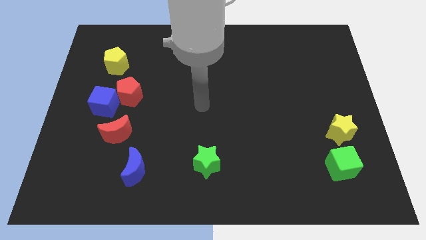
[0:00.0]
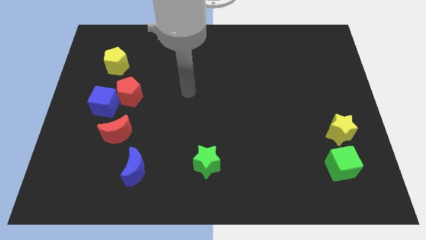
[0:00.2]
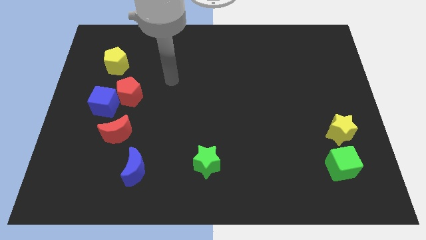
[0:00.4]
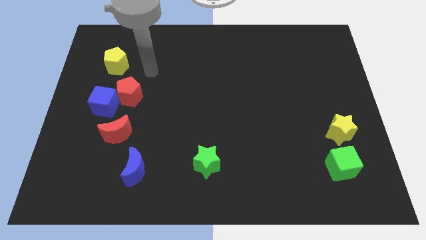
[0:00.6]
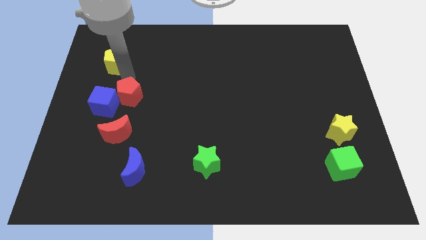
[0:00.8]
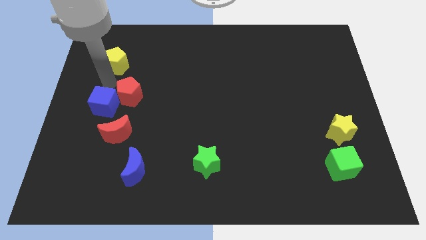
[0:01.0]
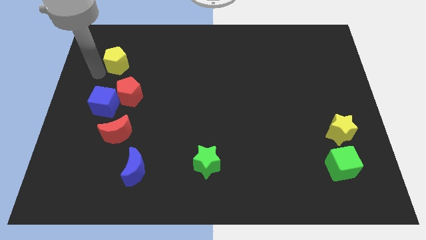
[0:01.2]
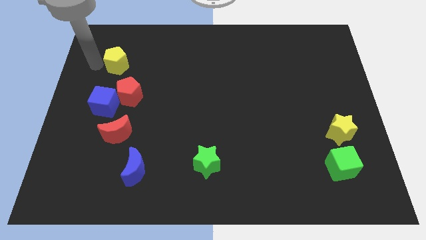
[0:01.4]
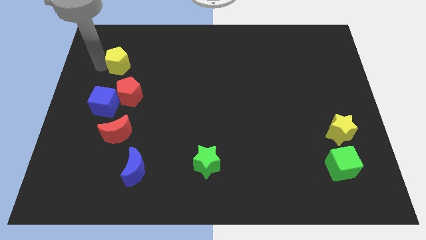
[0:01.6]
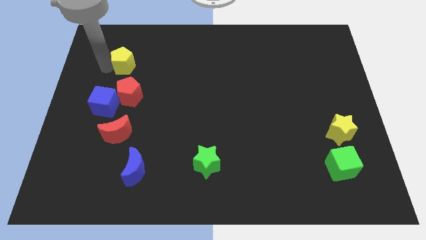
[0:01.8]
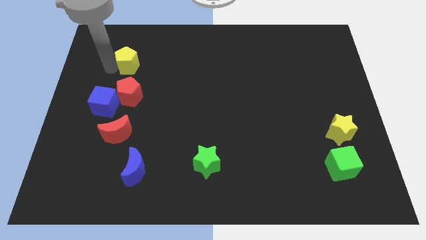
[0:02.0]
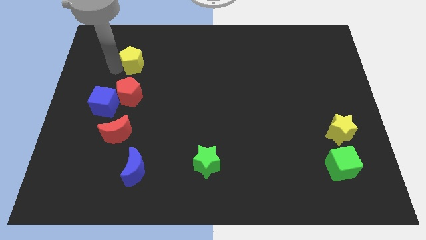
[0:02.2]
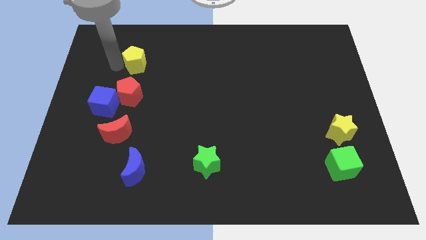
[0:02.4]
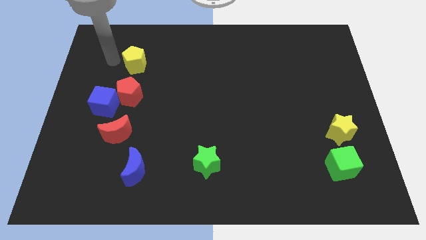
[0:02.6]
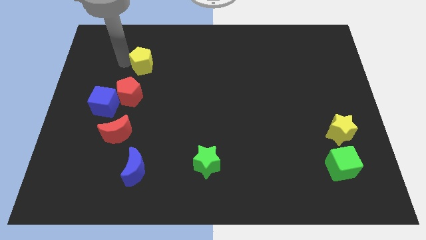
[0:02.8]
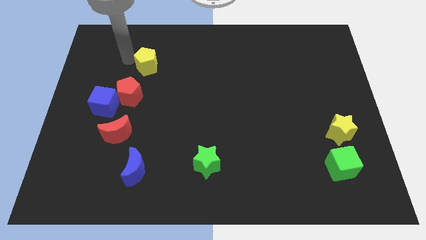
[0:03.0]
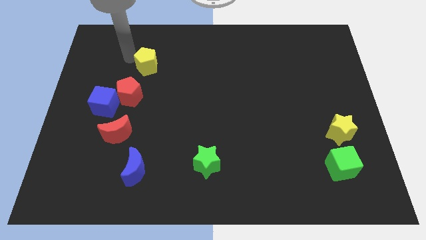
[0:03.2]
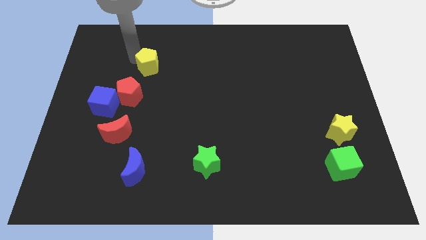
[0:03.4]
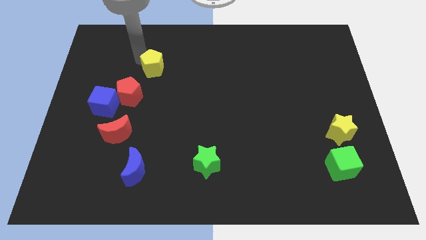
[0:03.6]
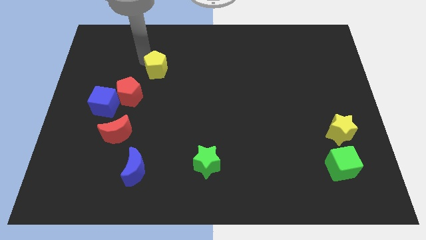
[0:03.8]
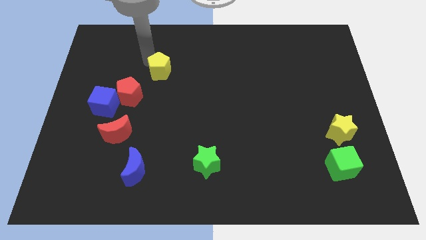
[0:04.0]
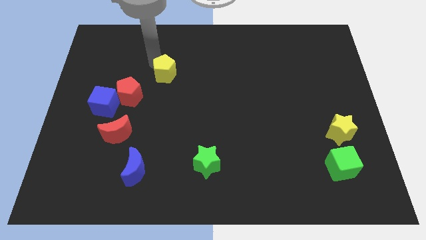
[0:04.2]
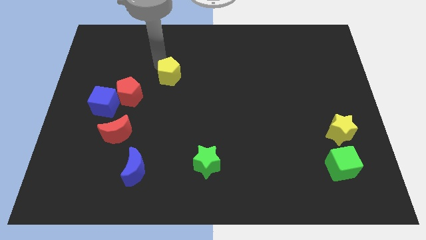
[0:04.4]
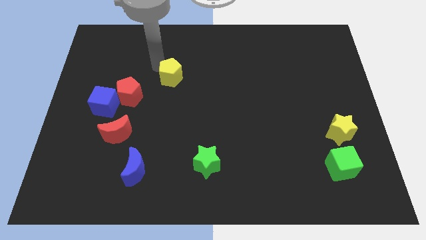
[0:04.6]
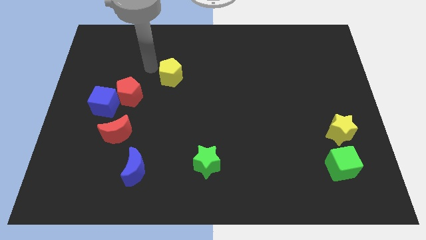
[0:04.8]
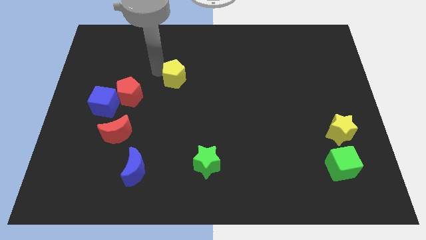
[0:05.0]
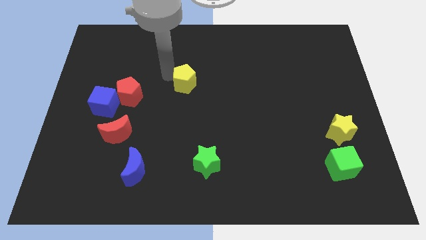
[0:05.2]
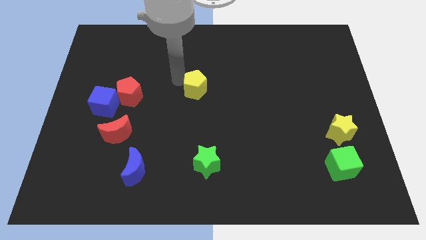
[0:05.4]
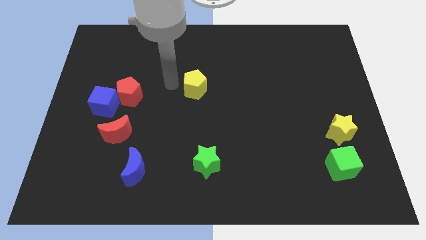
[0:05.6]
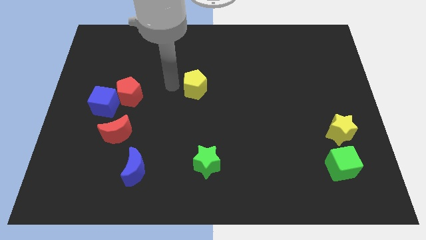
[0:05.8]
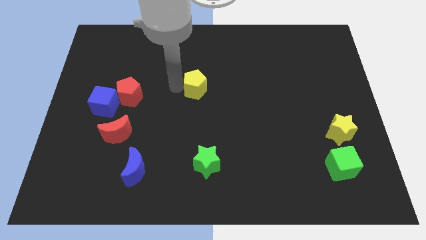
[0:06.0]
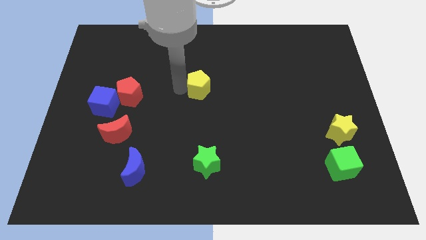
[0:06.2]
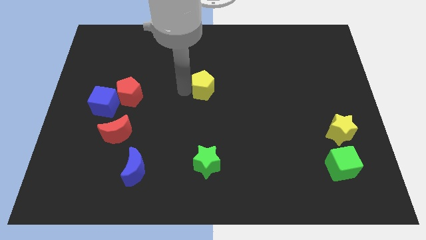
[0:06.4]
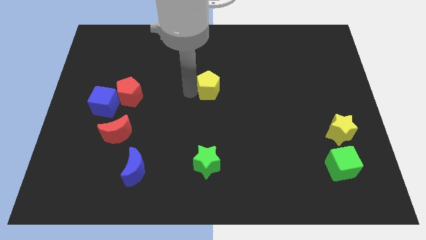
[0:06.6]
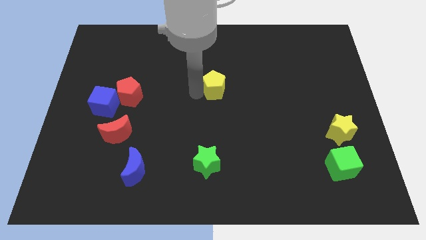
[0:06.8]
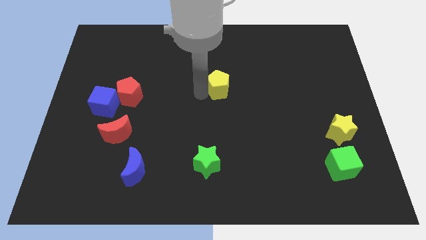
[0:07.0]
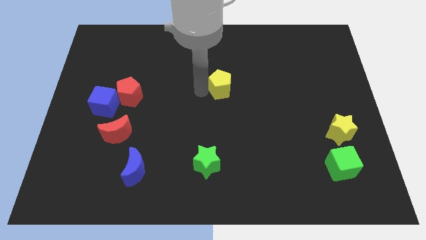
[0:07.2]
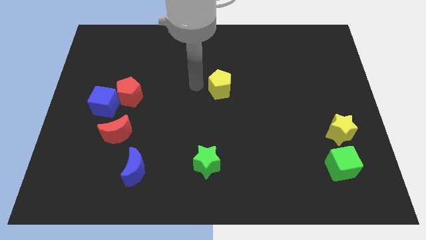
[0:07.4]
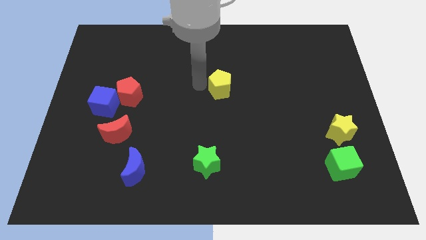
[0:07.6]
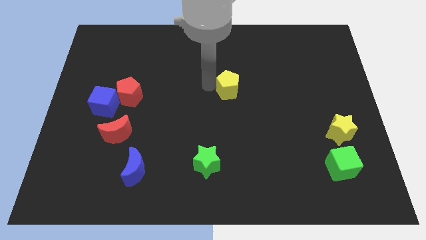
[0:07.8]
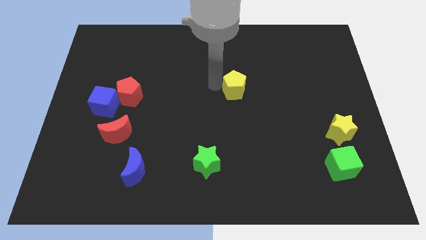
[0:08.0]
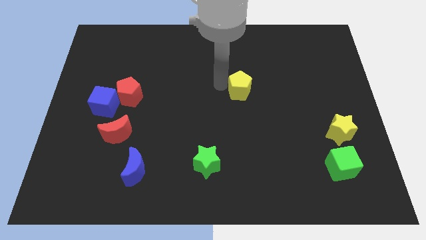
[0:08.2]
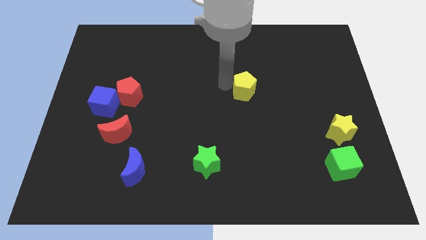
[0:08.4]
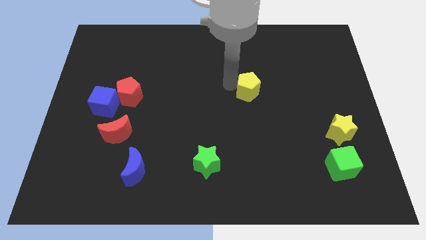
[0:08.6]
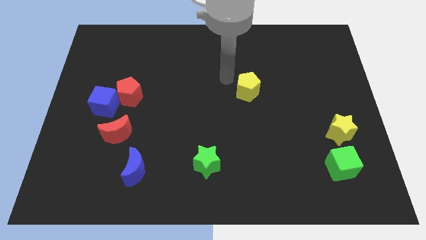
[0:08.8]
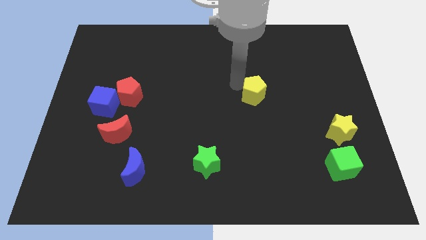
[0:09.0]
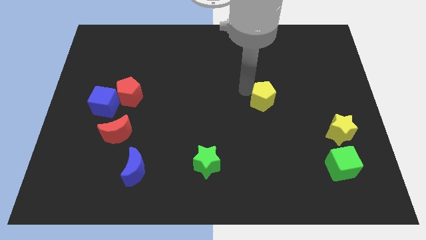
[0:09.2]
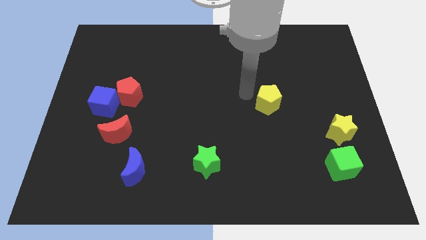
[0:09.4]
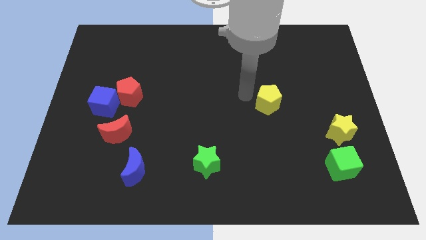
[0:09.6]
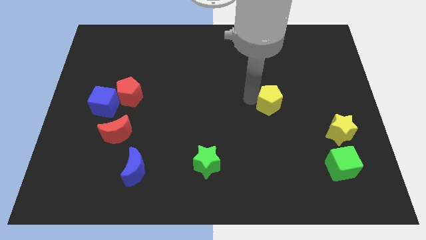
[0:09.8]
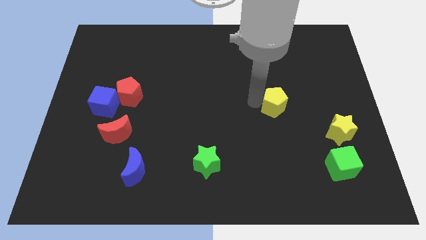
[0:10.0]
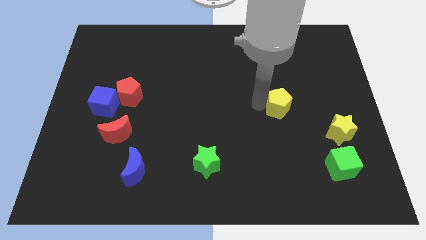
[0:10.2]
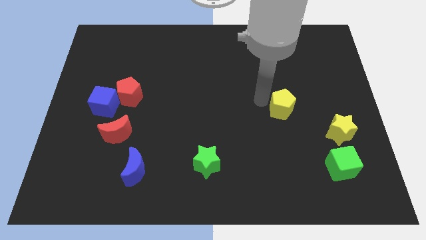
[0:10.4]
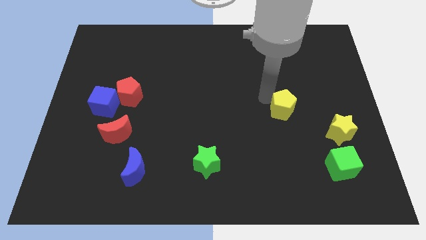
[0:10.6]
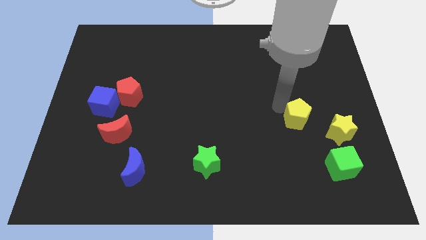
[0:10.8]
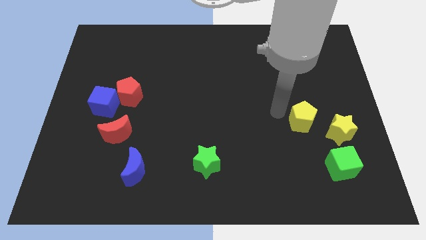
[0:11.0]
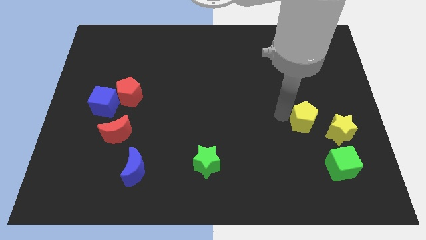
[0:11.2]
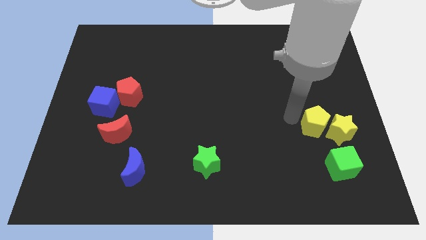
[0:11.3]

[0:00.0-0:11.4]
push the yellow pentagon towards the yellow star

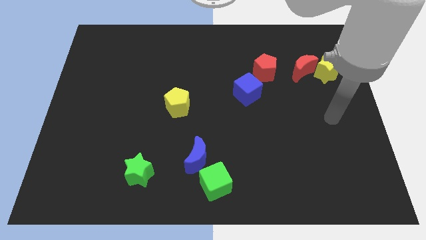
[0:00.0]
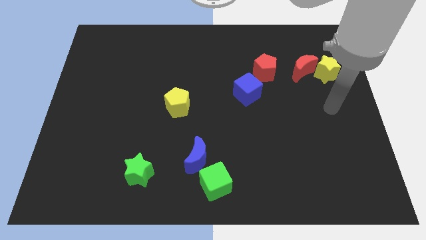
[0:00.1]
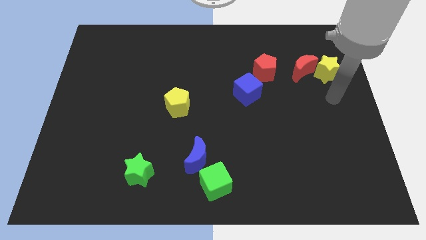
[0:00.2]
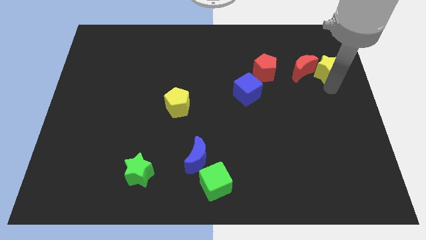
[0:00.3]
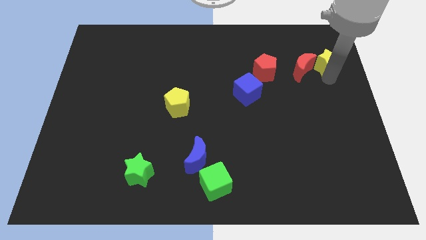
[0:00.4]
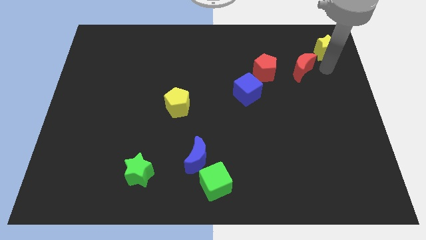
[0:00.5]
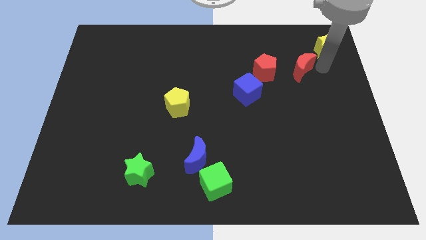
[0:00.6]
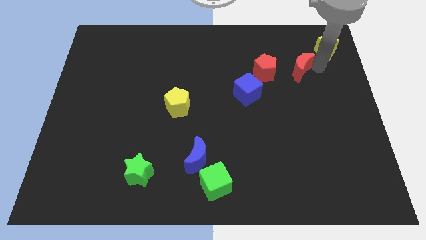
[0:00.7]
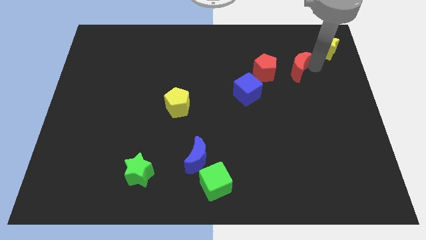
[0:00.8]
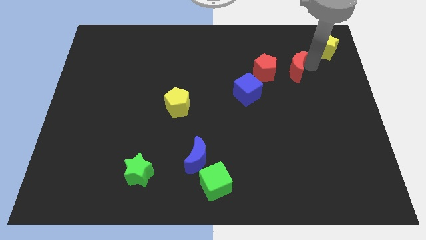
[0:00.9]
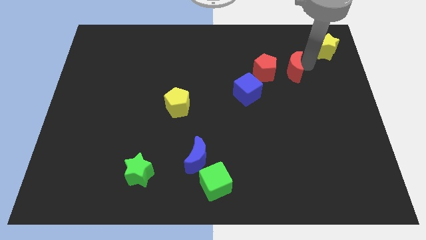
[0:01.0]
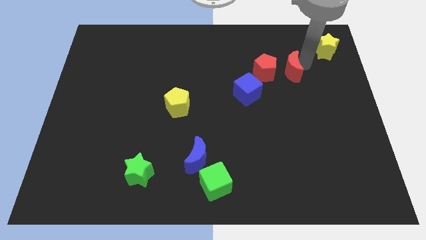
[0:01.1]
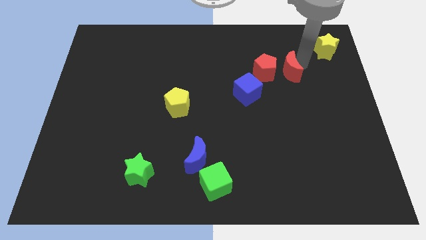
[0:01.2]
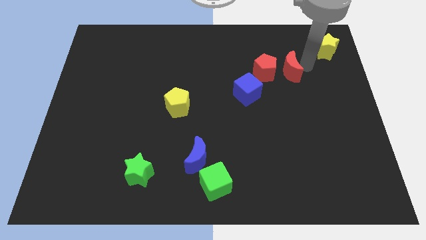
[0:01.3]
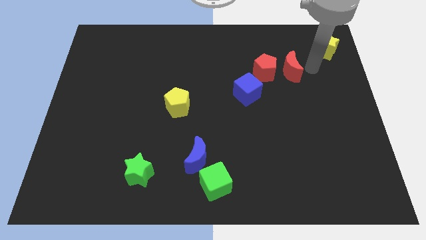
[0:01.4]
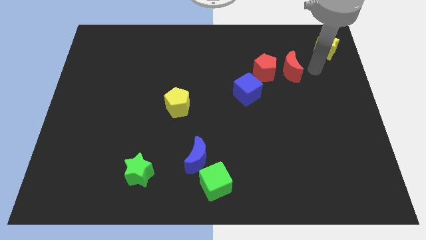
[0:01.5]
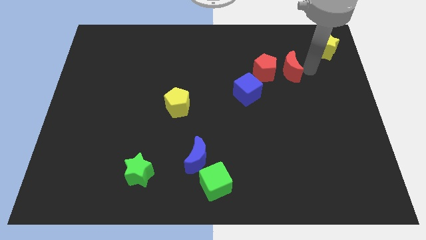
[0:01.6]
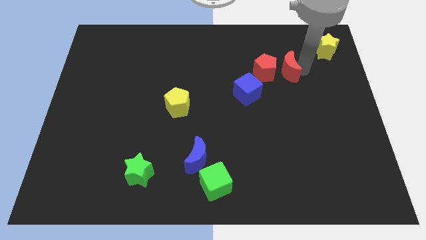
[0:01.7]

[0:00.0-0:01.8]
slide the red moon next to the red pentagon
